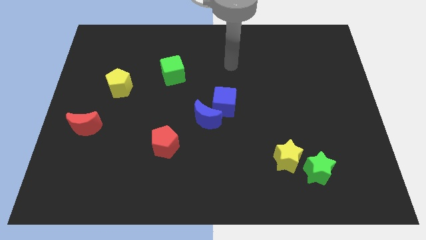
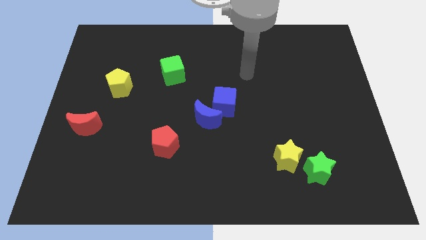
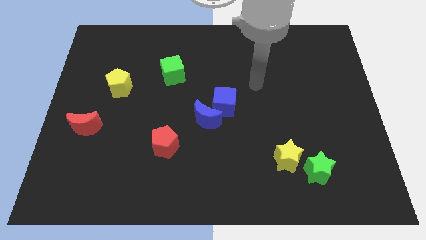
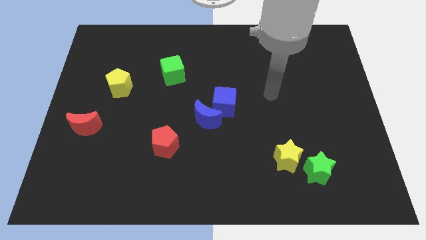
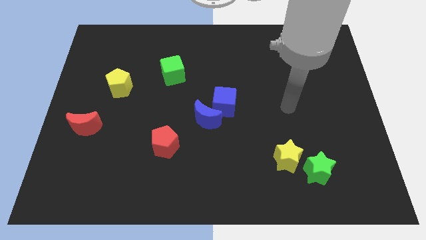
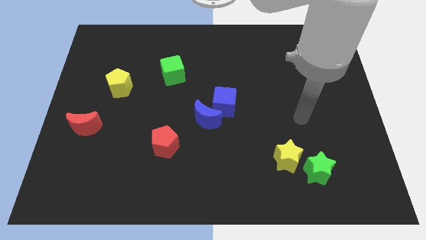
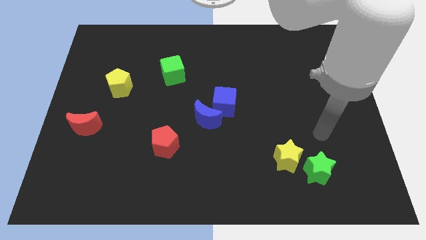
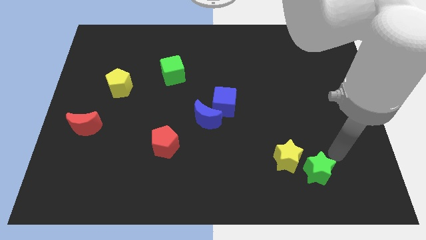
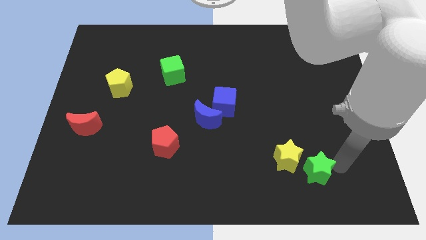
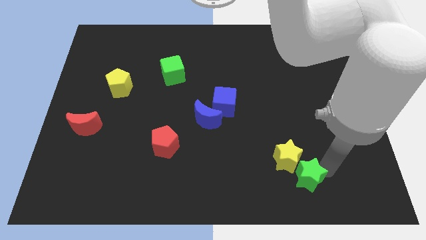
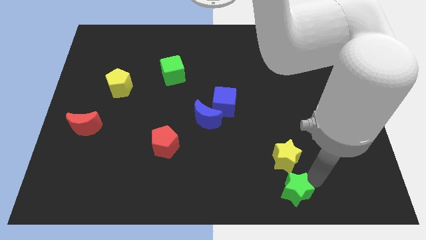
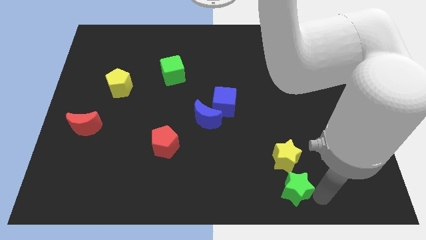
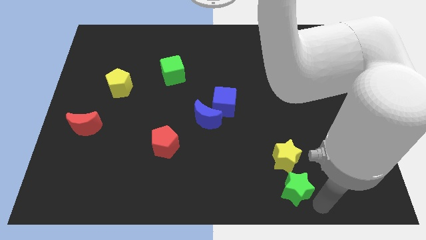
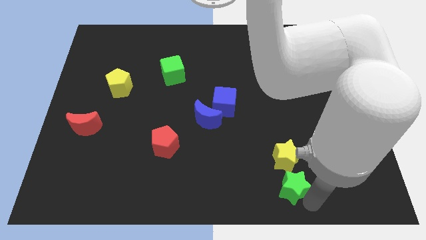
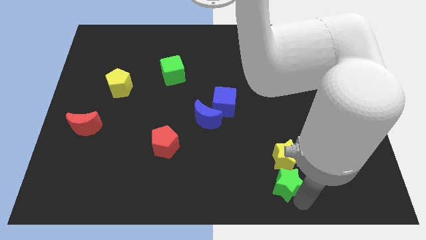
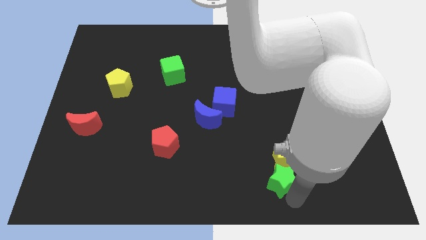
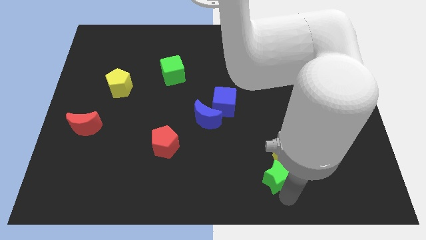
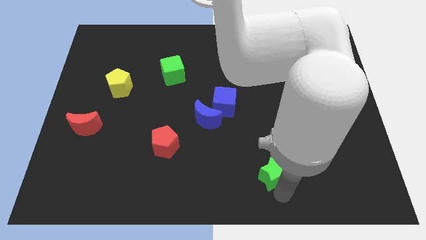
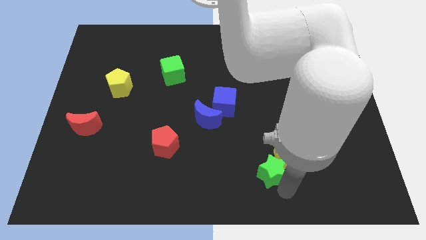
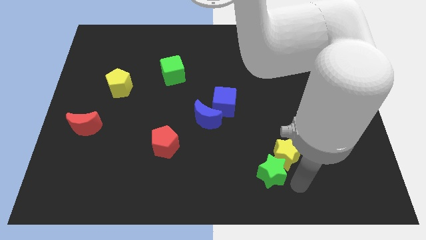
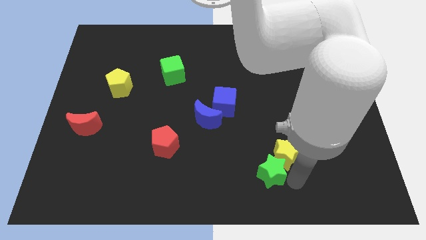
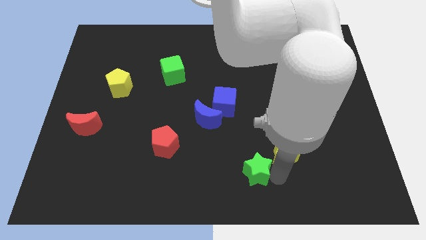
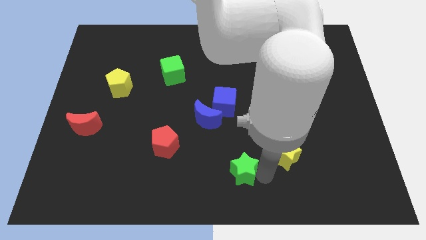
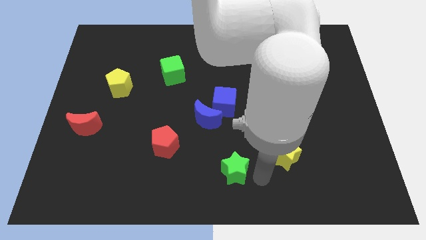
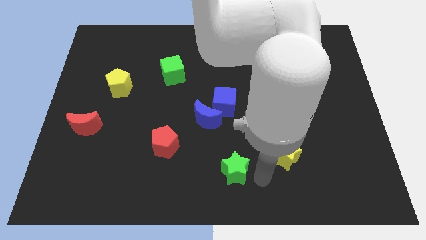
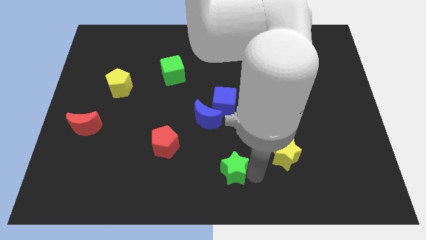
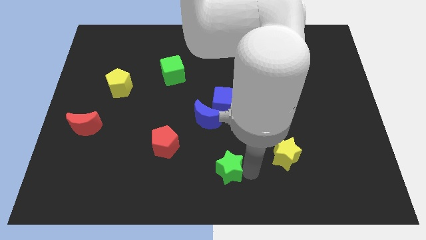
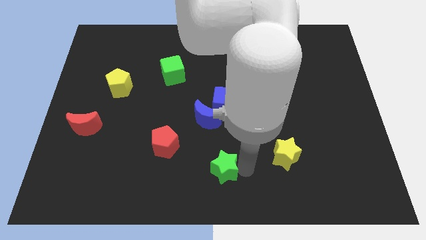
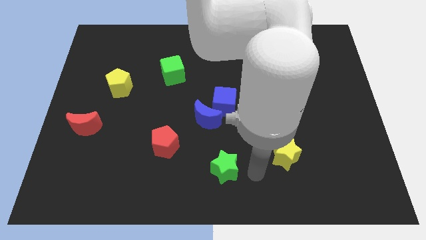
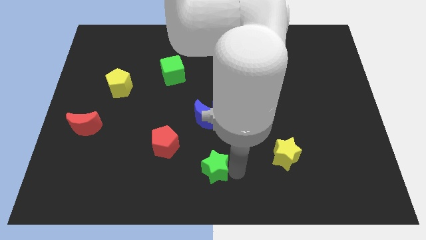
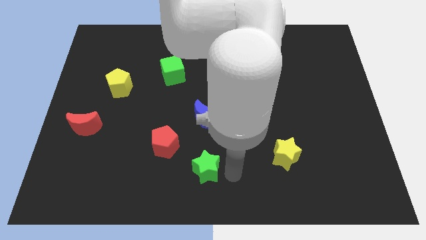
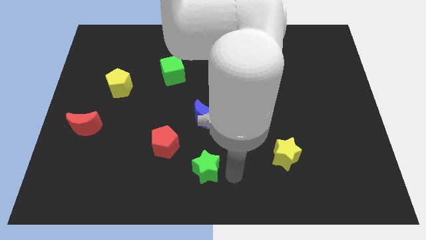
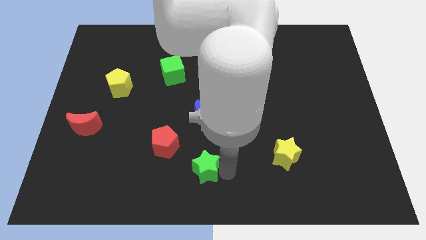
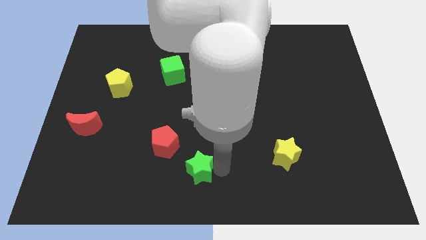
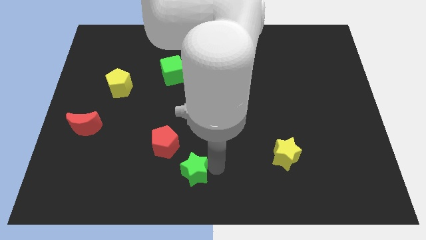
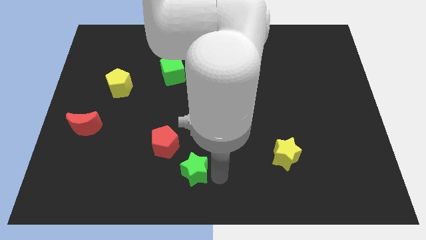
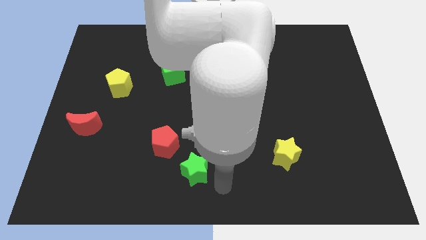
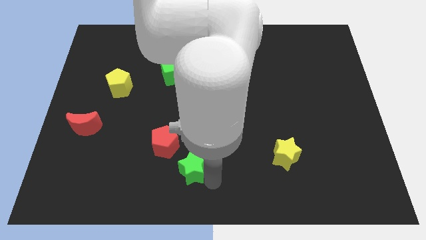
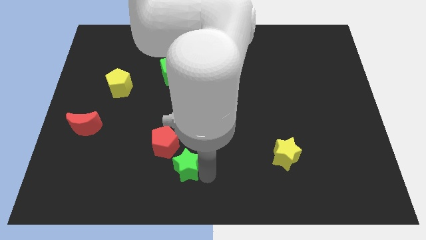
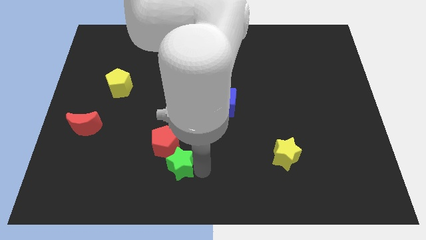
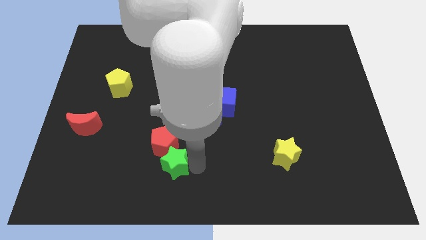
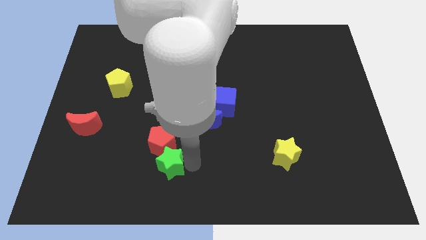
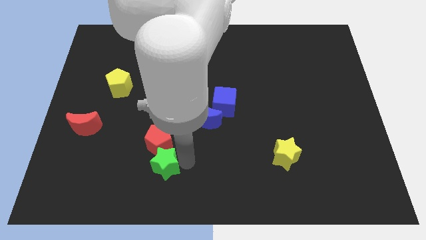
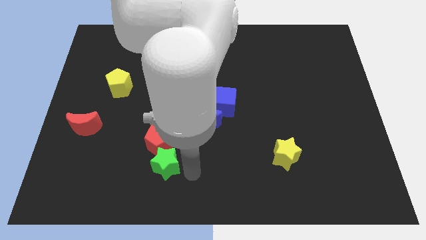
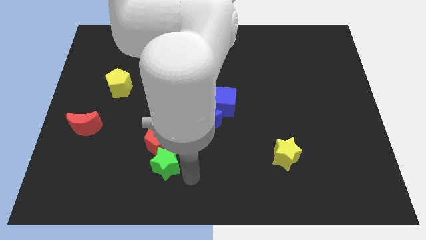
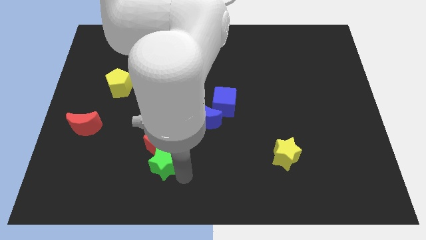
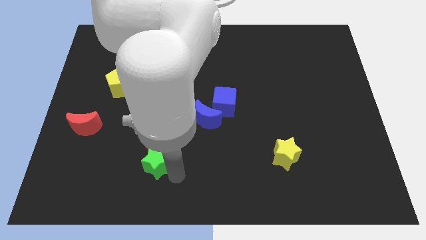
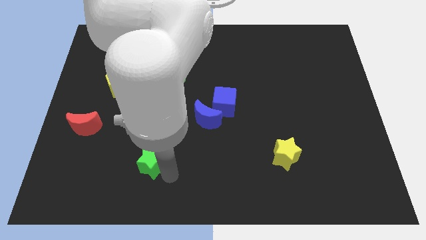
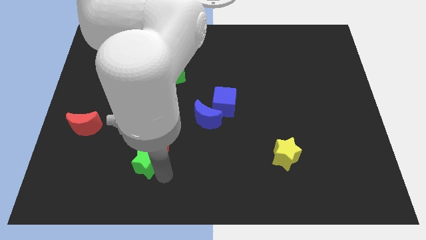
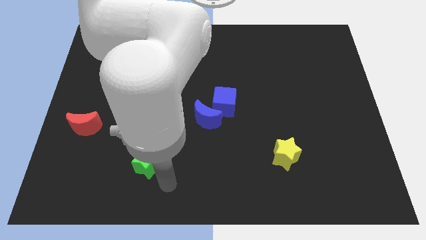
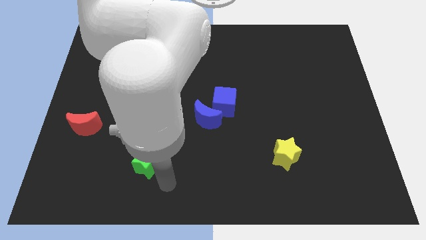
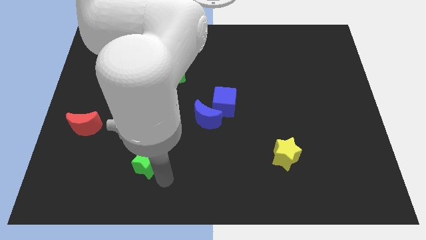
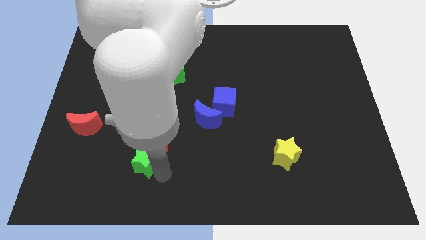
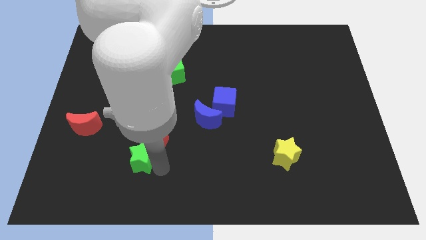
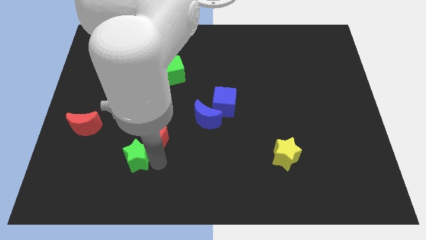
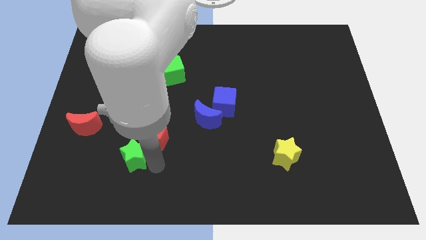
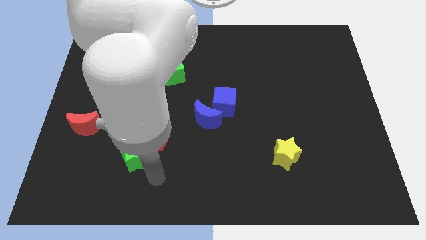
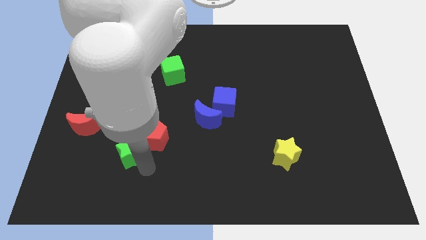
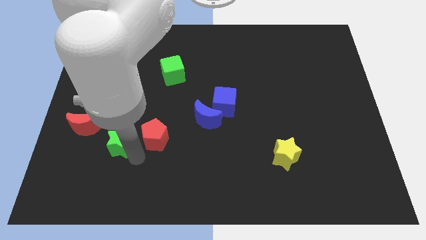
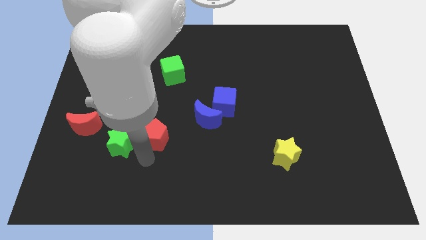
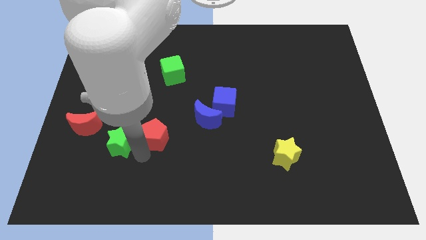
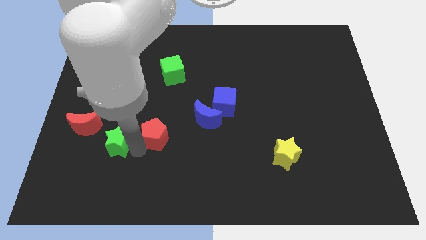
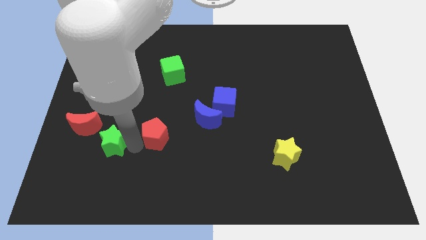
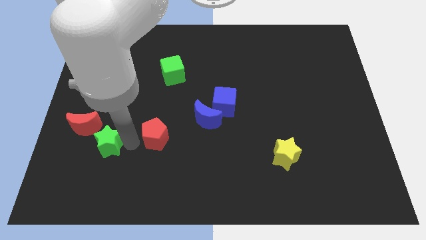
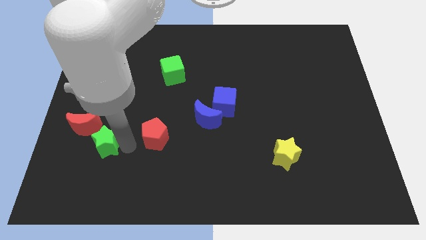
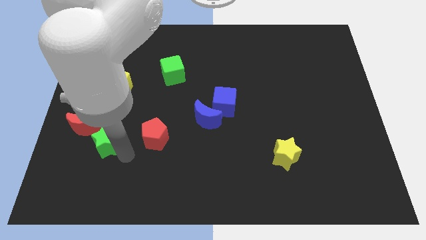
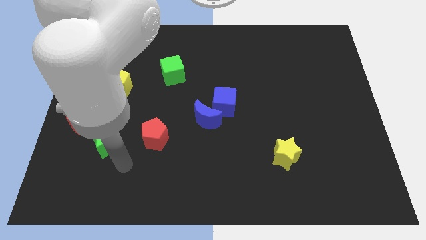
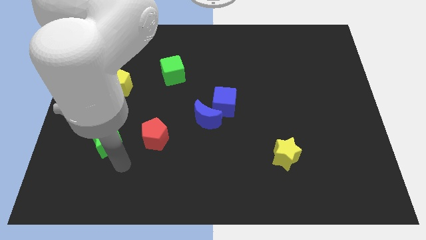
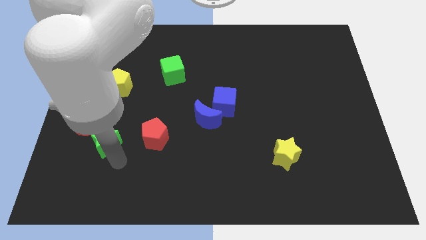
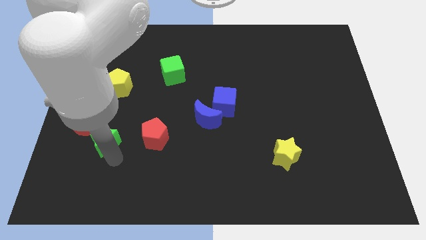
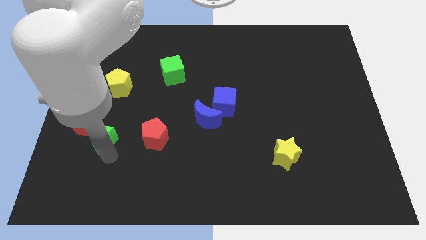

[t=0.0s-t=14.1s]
move the green star next to the red moon
